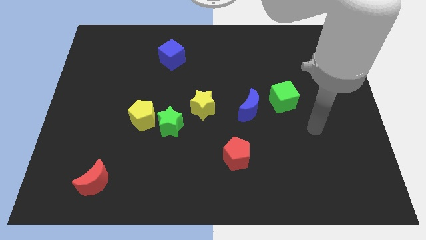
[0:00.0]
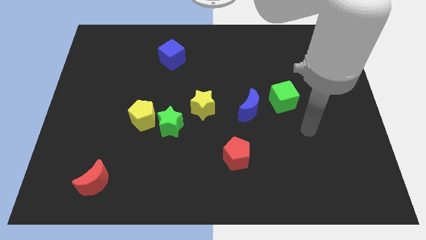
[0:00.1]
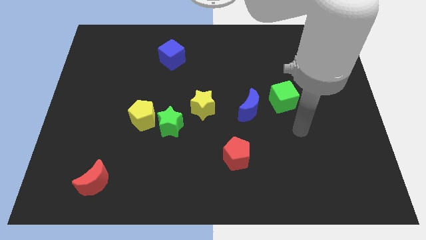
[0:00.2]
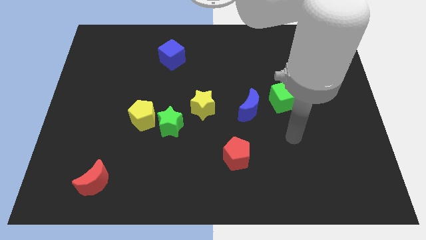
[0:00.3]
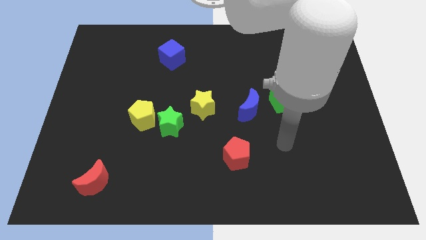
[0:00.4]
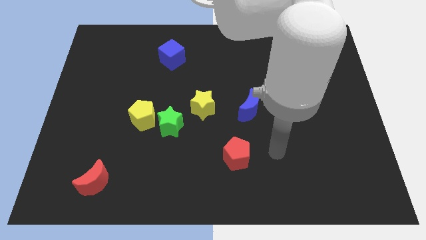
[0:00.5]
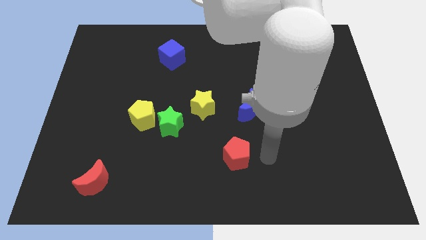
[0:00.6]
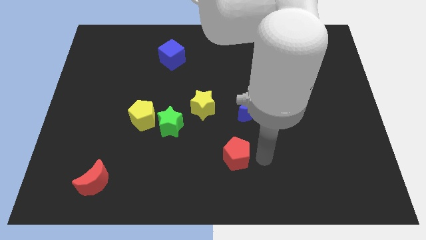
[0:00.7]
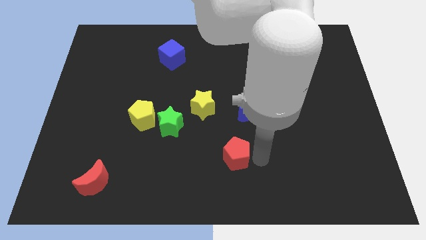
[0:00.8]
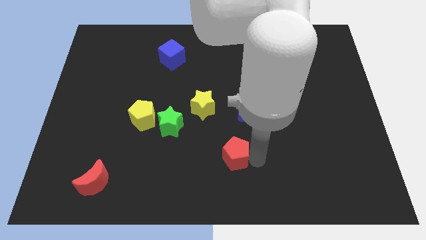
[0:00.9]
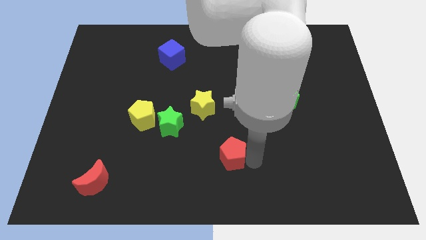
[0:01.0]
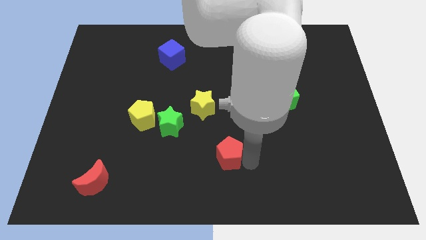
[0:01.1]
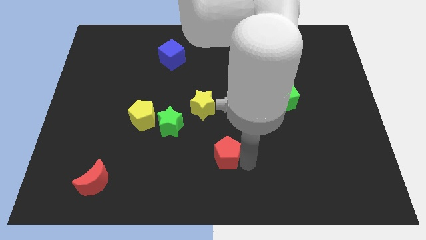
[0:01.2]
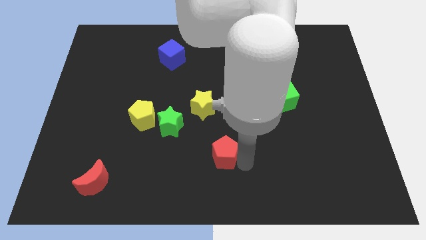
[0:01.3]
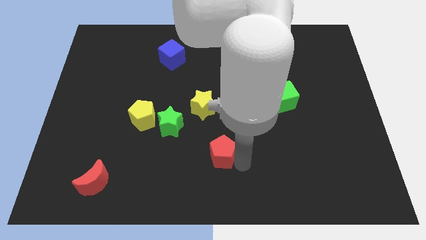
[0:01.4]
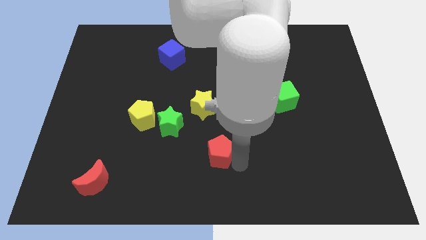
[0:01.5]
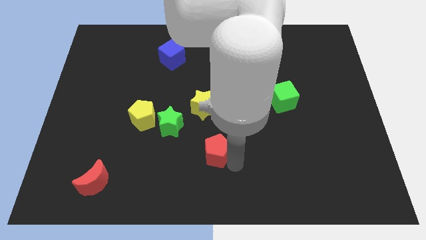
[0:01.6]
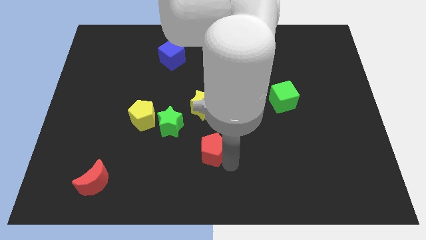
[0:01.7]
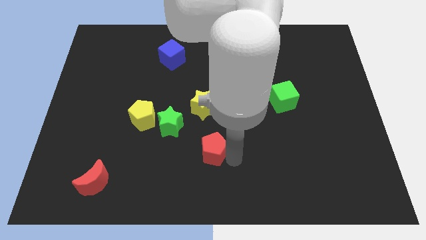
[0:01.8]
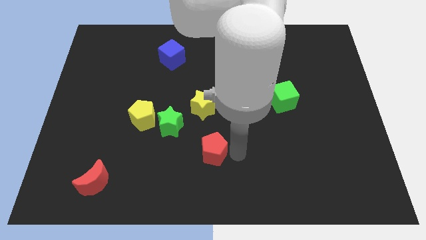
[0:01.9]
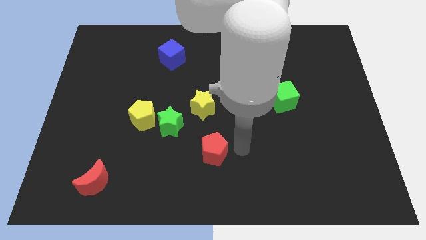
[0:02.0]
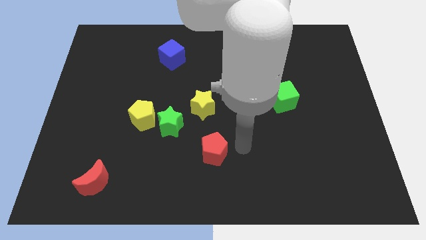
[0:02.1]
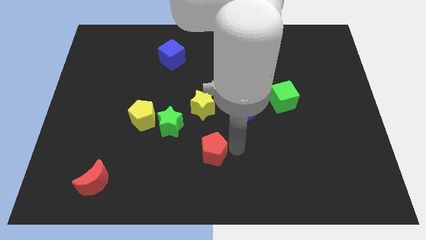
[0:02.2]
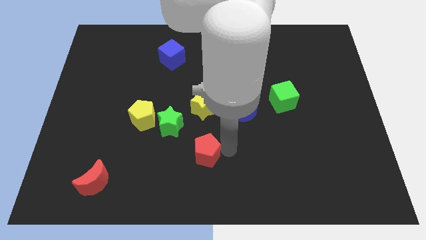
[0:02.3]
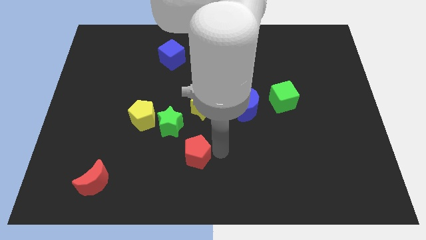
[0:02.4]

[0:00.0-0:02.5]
move the red pentagon to the left a little bit

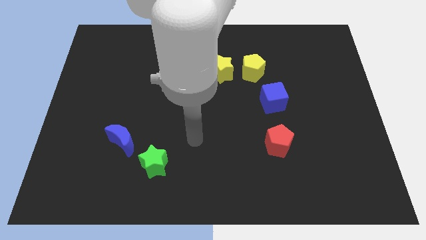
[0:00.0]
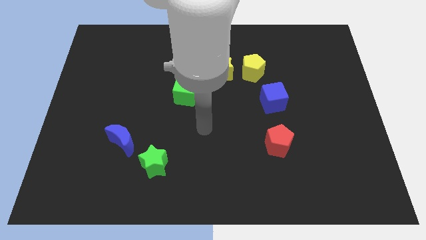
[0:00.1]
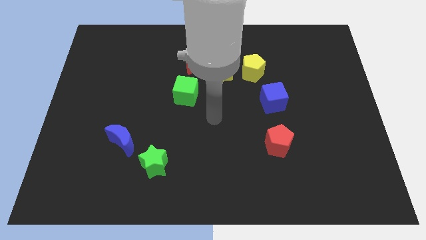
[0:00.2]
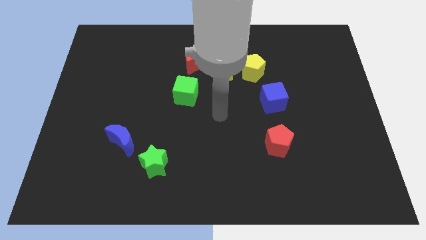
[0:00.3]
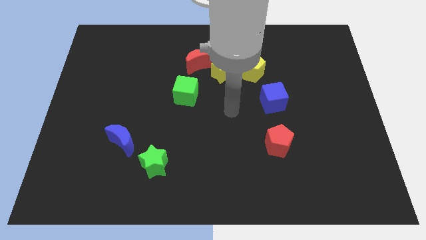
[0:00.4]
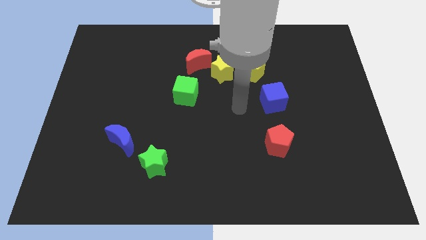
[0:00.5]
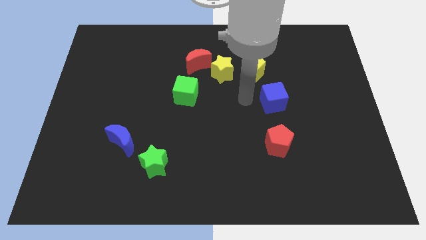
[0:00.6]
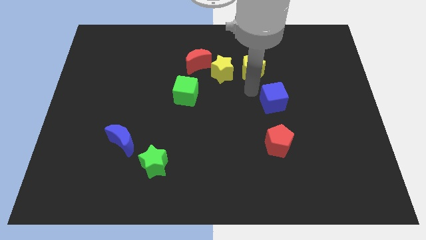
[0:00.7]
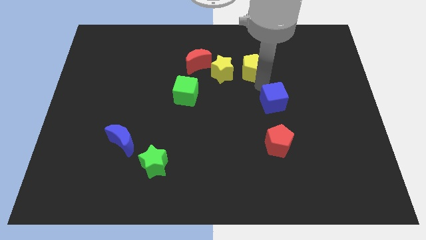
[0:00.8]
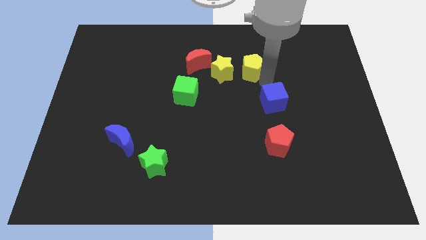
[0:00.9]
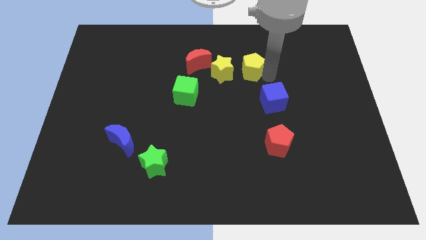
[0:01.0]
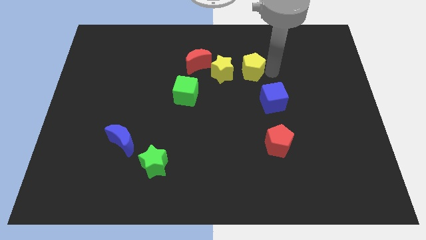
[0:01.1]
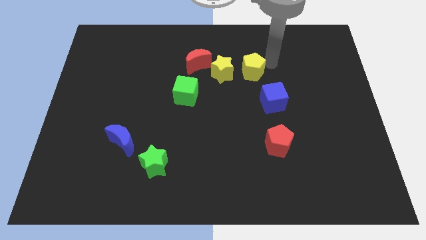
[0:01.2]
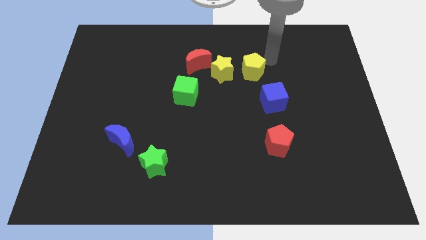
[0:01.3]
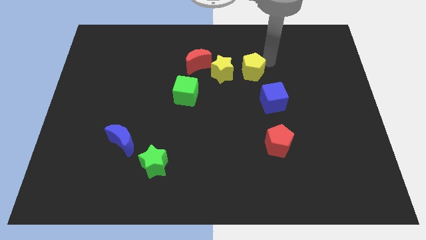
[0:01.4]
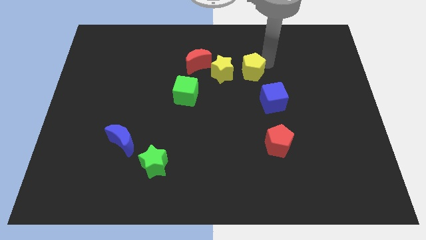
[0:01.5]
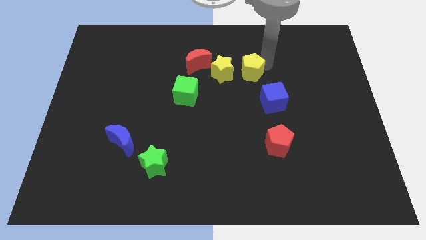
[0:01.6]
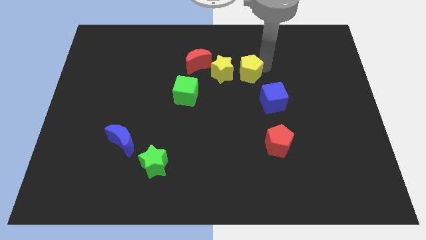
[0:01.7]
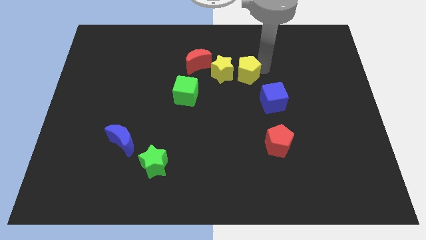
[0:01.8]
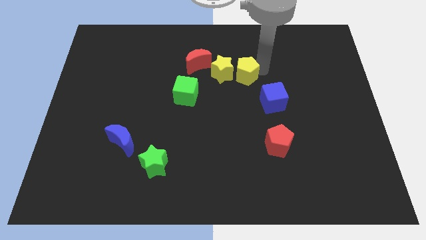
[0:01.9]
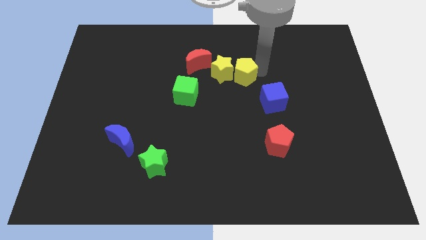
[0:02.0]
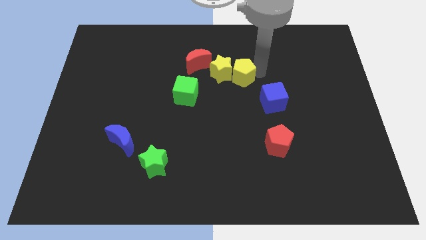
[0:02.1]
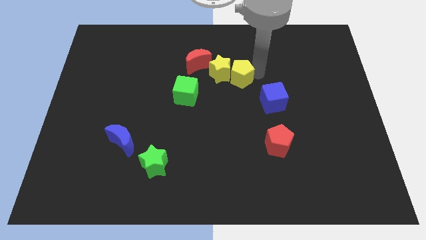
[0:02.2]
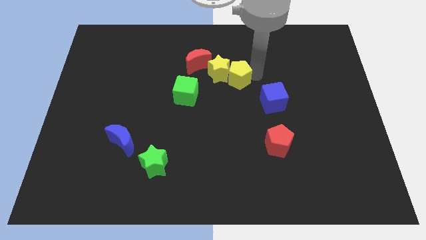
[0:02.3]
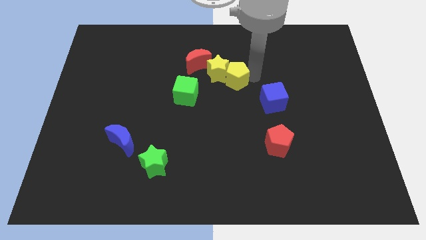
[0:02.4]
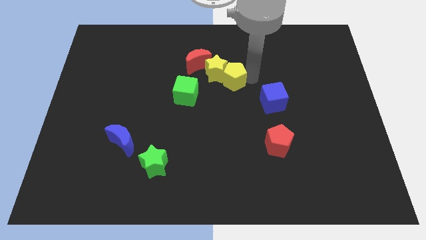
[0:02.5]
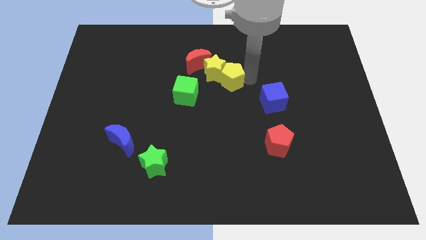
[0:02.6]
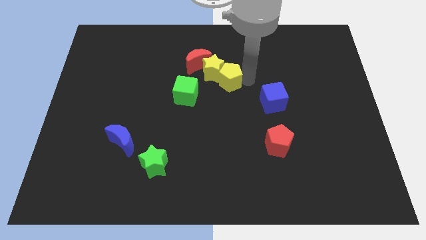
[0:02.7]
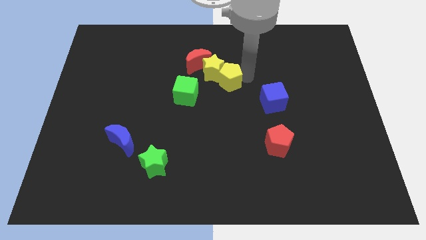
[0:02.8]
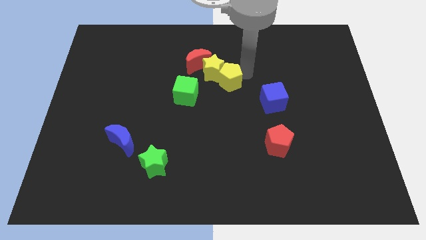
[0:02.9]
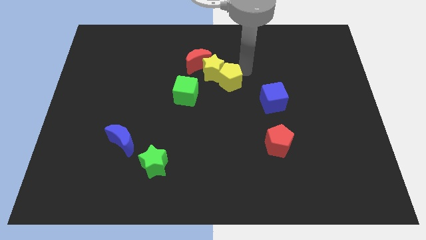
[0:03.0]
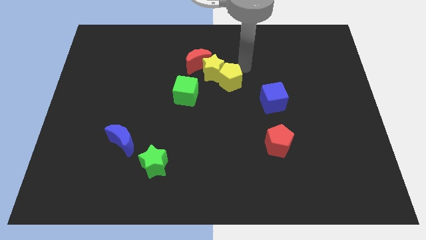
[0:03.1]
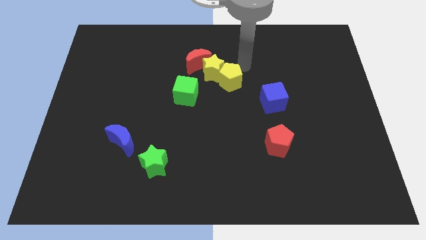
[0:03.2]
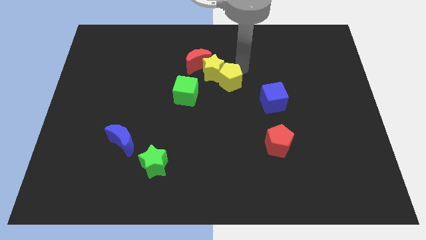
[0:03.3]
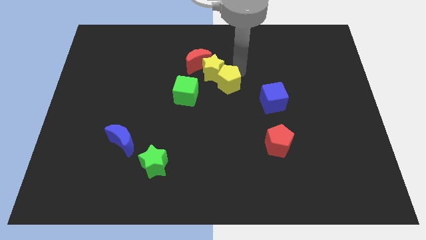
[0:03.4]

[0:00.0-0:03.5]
move the yellow pentagon a little down and to the left

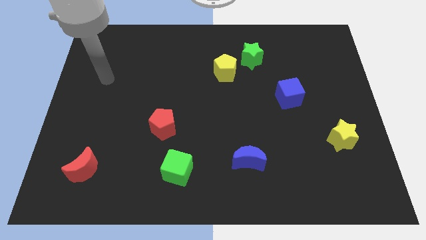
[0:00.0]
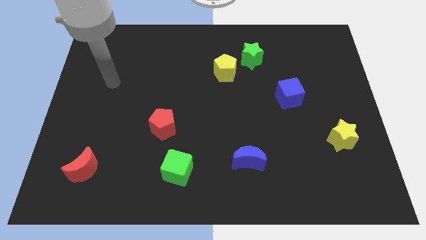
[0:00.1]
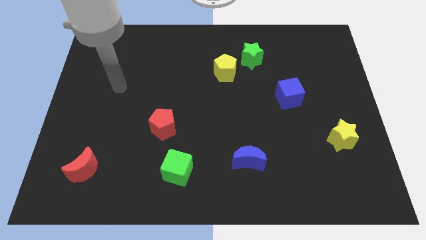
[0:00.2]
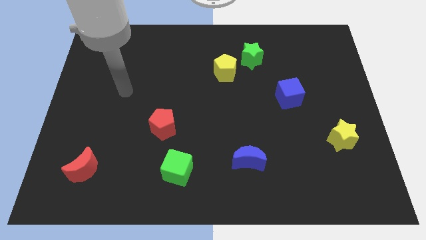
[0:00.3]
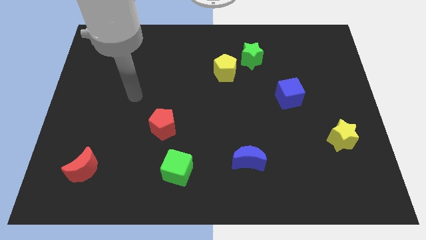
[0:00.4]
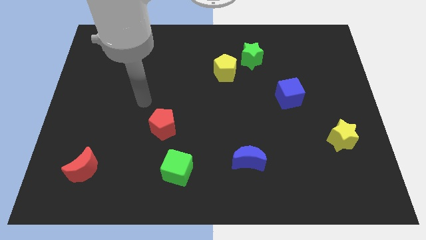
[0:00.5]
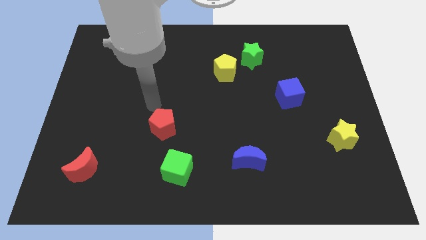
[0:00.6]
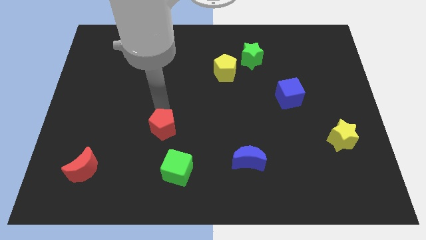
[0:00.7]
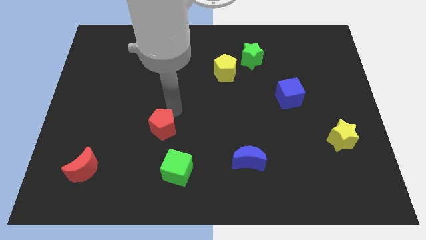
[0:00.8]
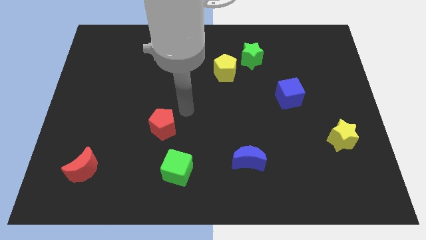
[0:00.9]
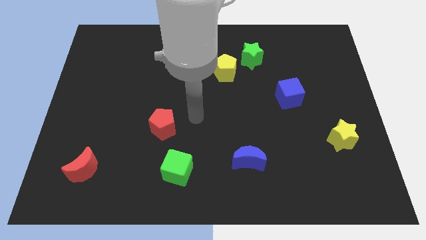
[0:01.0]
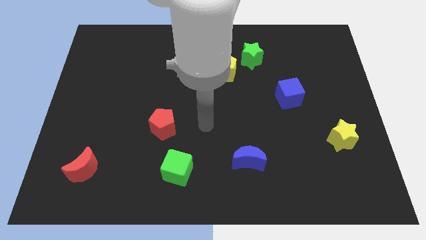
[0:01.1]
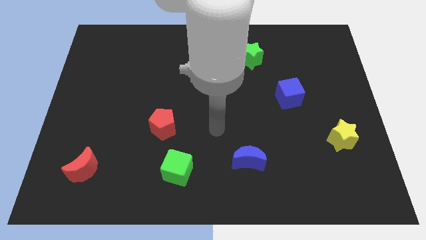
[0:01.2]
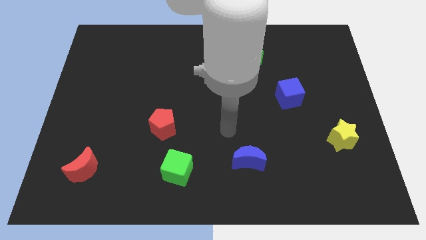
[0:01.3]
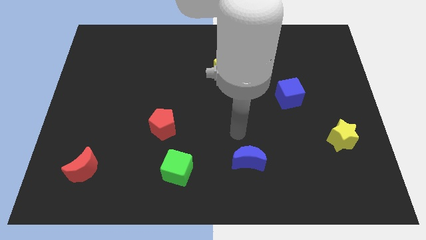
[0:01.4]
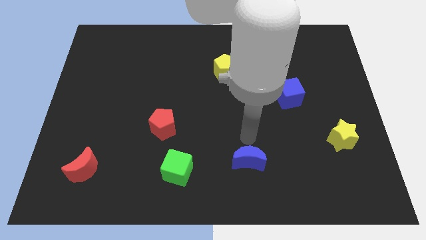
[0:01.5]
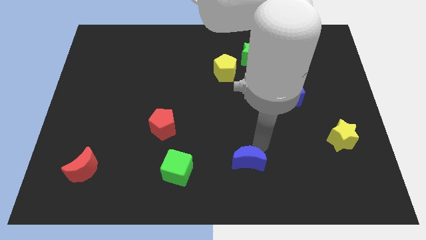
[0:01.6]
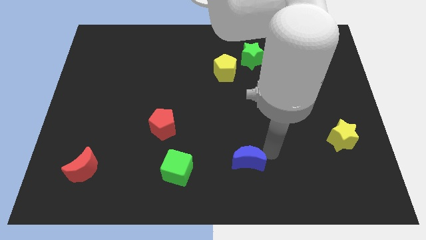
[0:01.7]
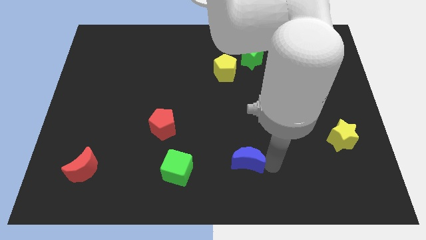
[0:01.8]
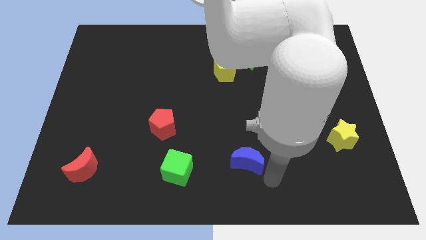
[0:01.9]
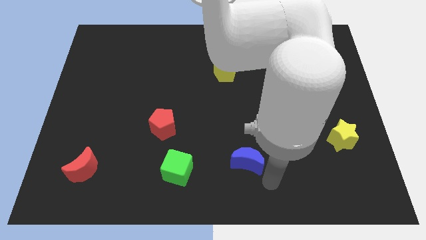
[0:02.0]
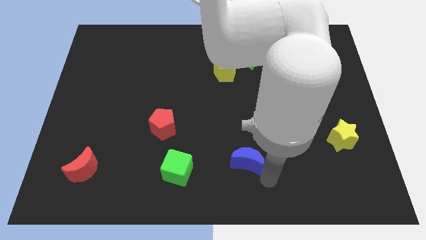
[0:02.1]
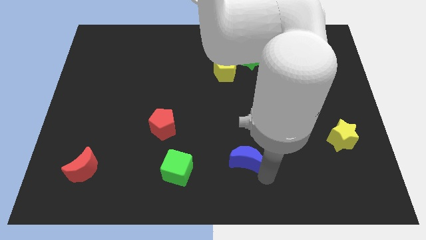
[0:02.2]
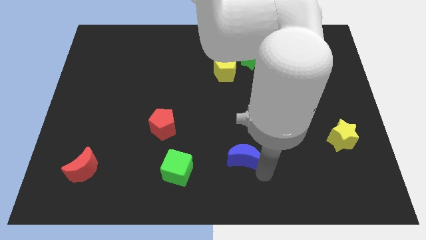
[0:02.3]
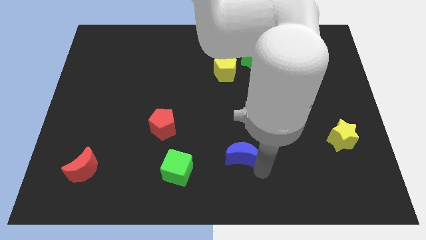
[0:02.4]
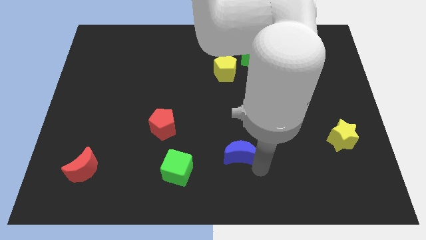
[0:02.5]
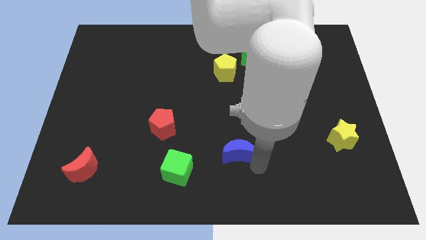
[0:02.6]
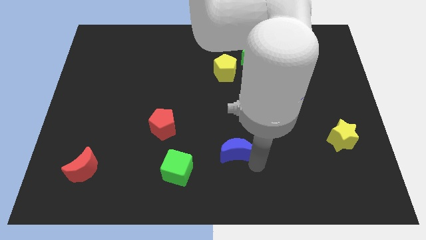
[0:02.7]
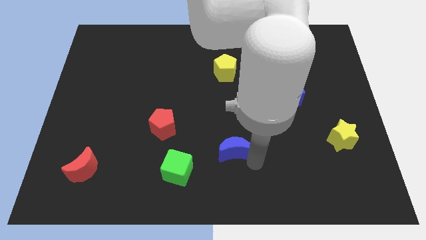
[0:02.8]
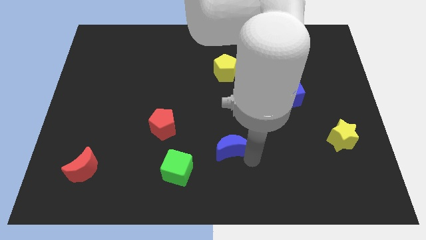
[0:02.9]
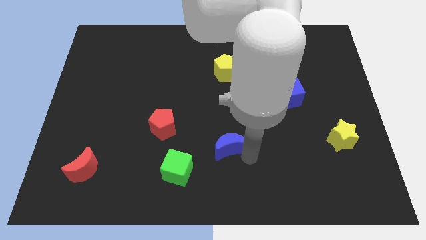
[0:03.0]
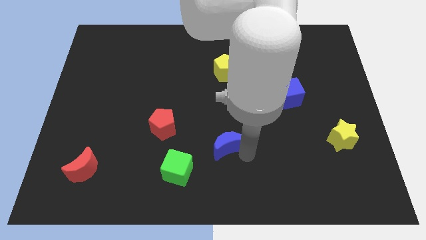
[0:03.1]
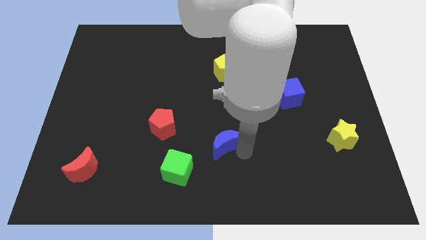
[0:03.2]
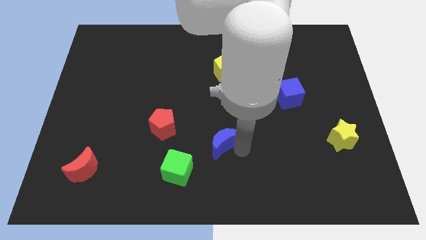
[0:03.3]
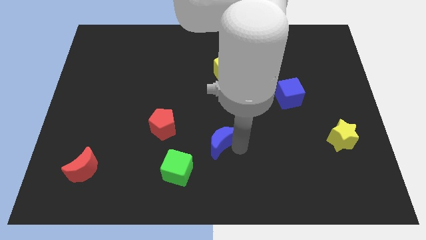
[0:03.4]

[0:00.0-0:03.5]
move the blue moon somewhat upwards and to the left
